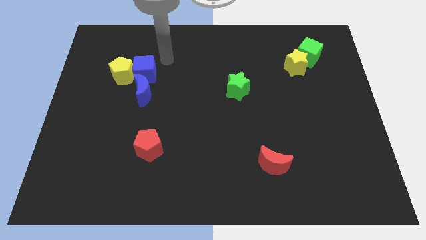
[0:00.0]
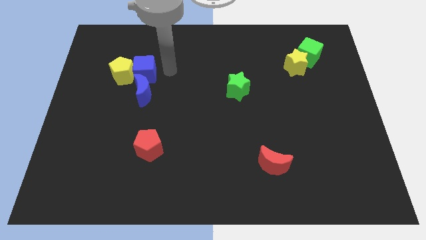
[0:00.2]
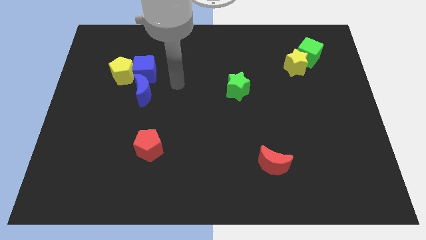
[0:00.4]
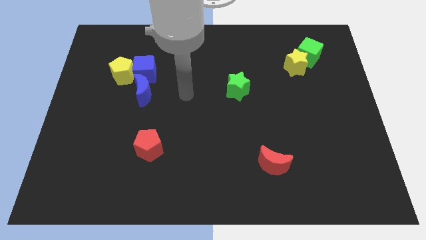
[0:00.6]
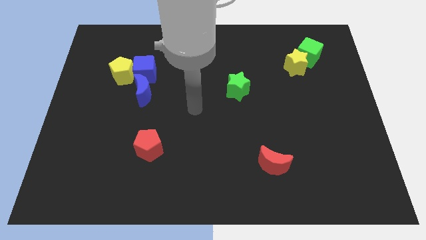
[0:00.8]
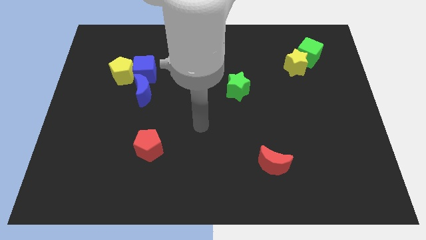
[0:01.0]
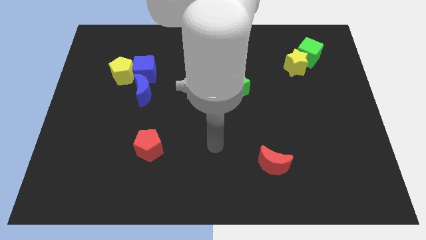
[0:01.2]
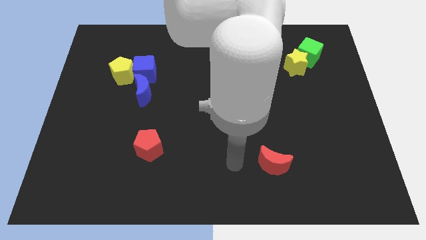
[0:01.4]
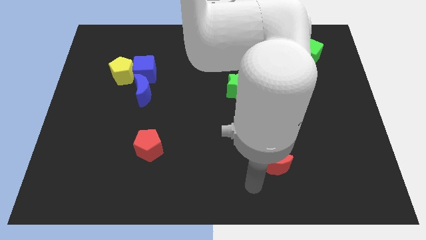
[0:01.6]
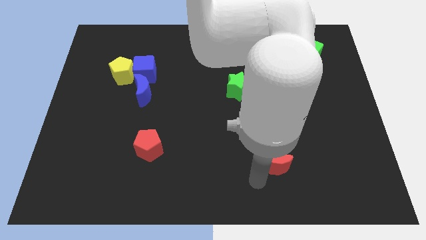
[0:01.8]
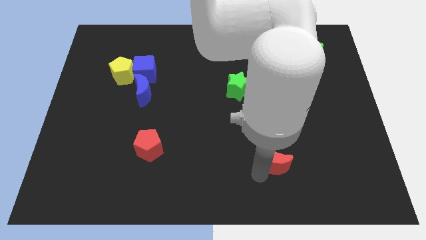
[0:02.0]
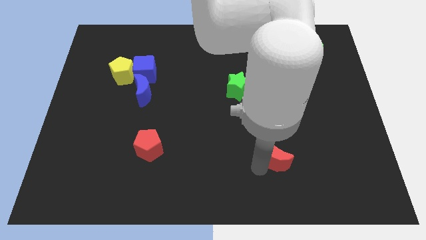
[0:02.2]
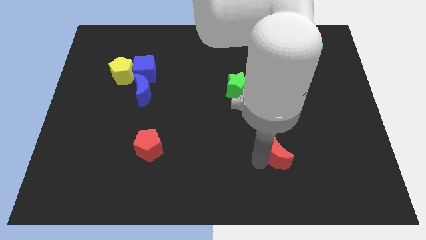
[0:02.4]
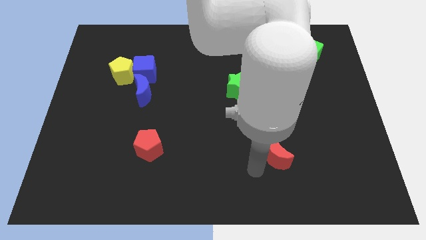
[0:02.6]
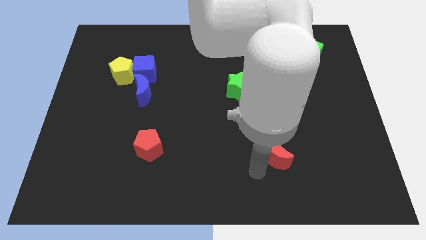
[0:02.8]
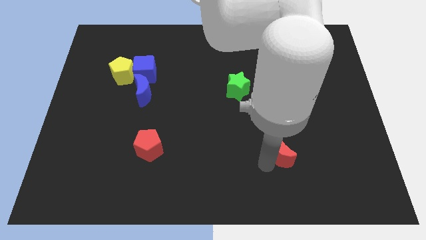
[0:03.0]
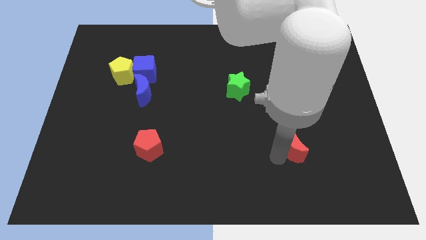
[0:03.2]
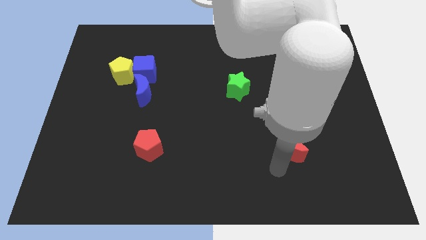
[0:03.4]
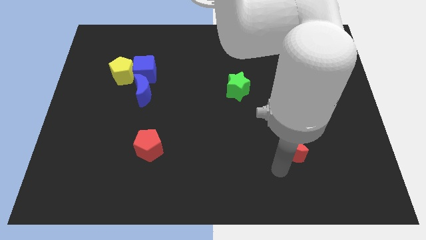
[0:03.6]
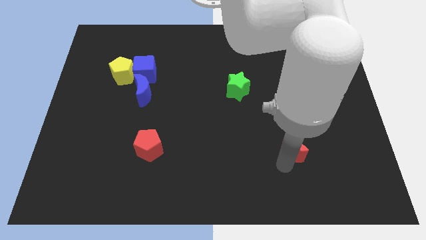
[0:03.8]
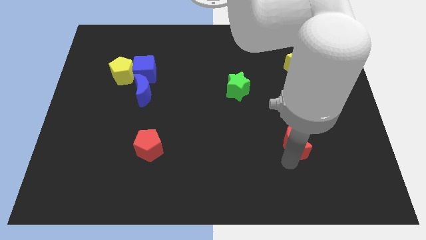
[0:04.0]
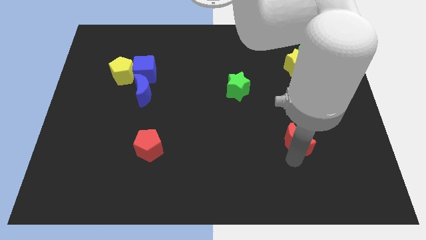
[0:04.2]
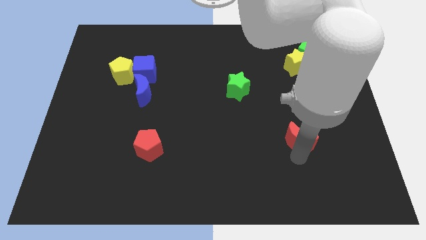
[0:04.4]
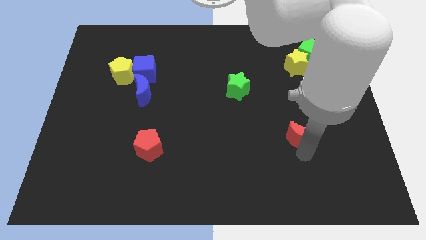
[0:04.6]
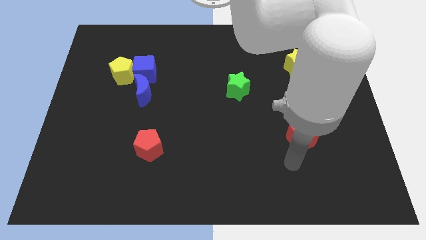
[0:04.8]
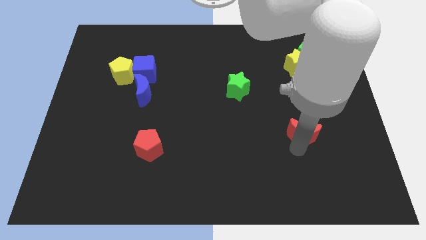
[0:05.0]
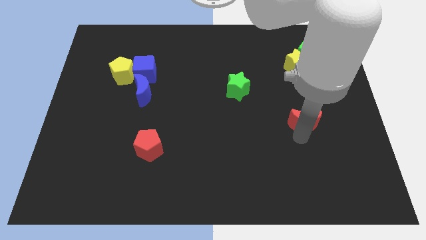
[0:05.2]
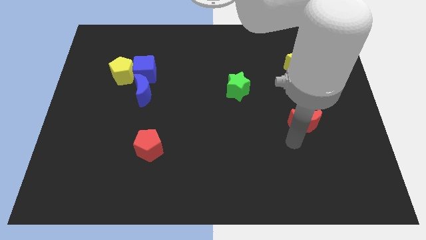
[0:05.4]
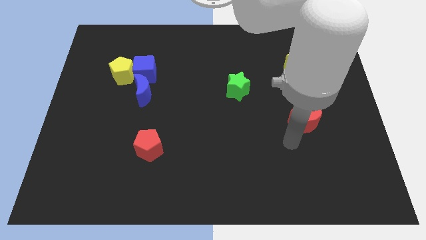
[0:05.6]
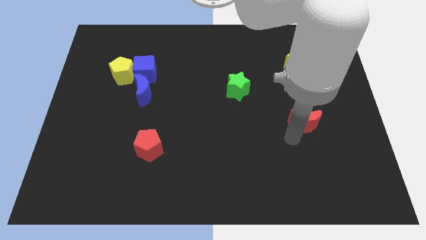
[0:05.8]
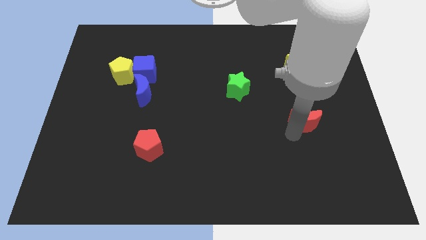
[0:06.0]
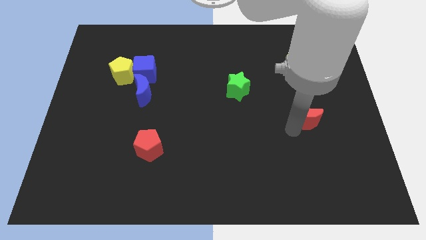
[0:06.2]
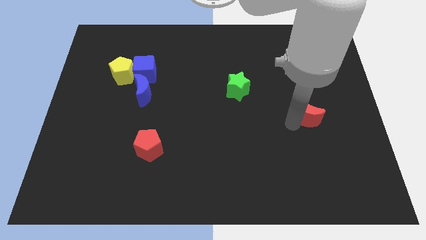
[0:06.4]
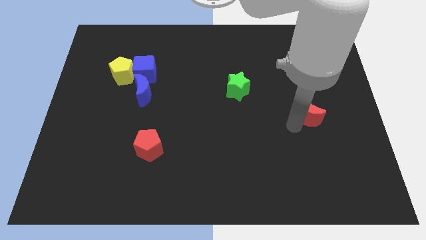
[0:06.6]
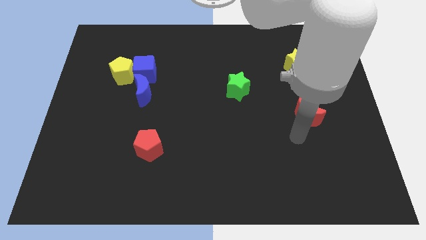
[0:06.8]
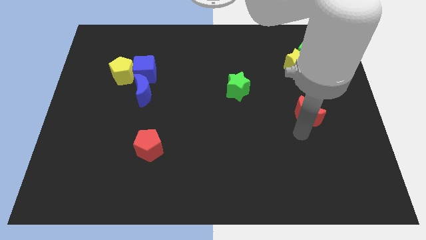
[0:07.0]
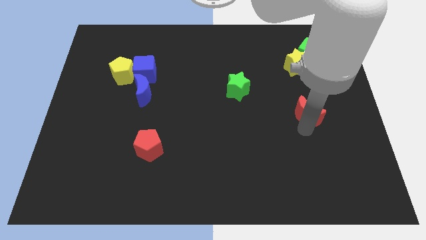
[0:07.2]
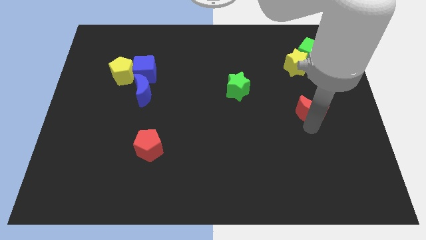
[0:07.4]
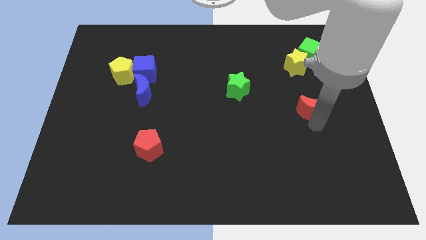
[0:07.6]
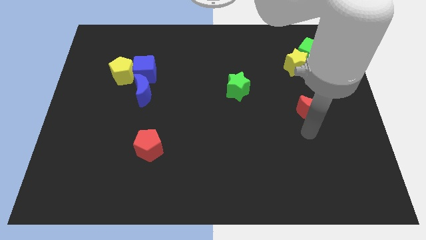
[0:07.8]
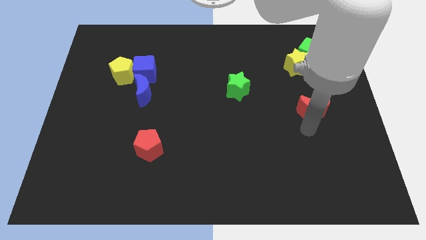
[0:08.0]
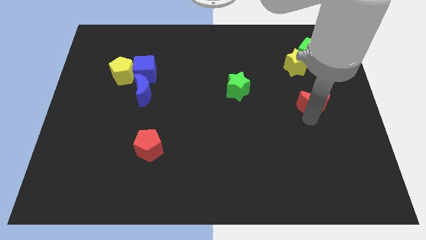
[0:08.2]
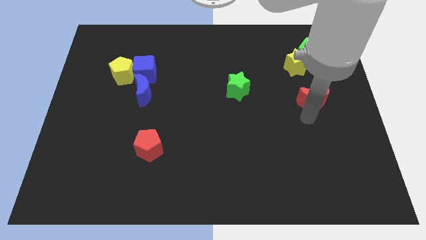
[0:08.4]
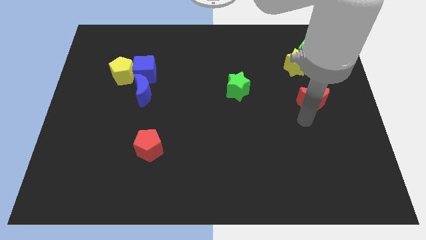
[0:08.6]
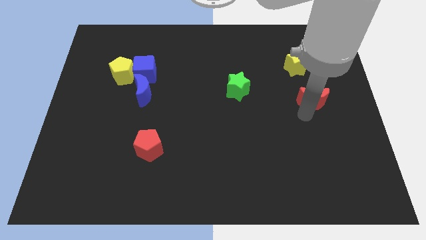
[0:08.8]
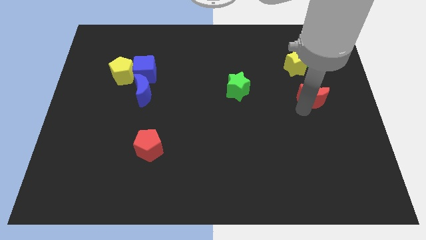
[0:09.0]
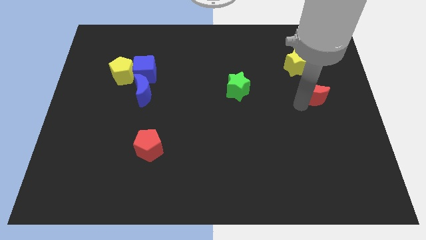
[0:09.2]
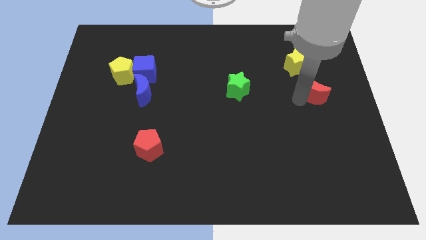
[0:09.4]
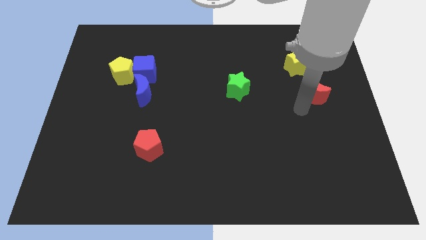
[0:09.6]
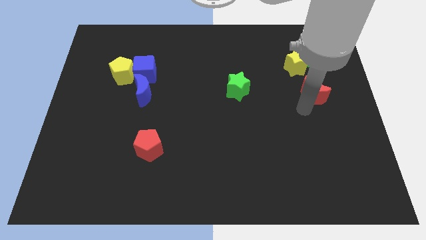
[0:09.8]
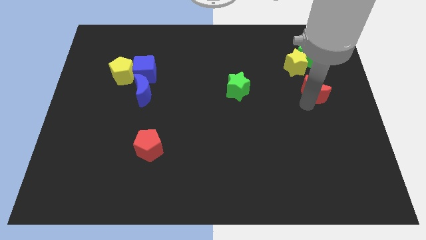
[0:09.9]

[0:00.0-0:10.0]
push the red moon diagonally down and to the right of the yellow star

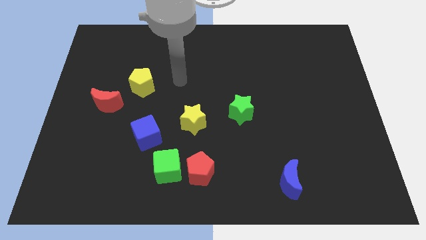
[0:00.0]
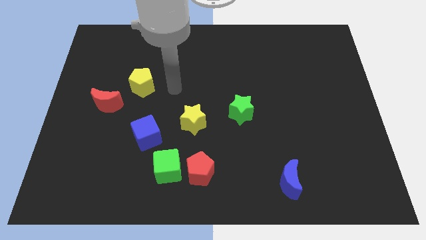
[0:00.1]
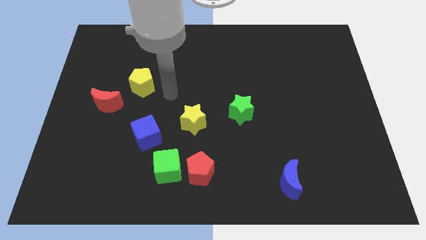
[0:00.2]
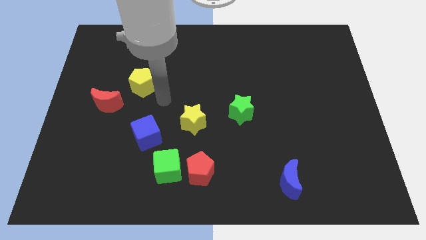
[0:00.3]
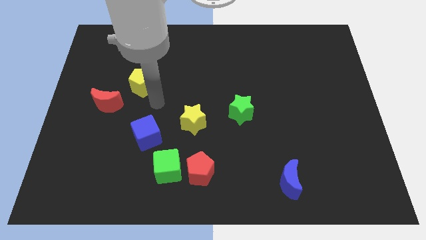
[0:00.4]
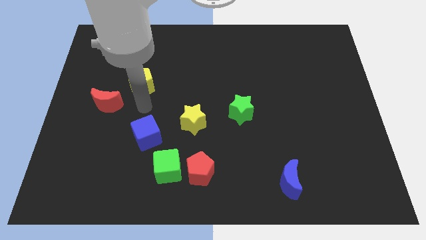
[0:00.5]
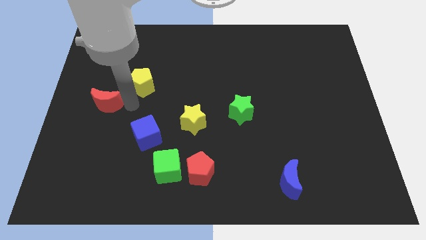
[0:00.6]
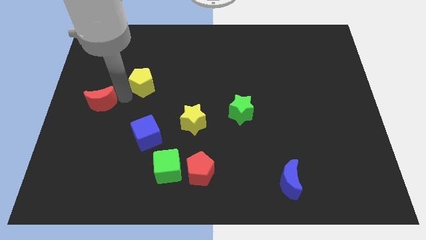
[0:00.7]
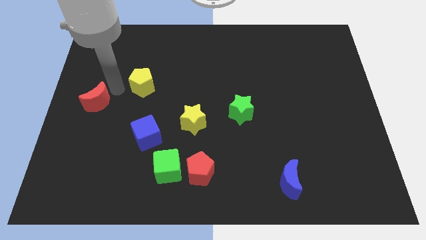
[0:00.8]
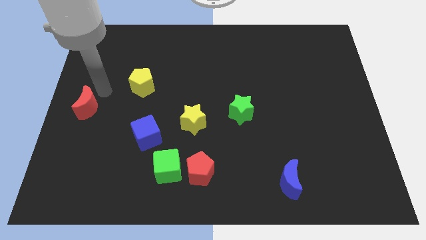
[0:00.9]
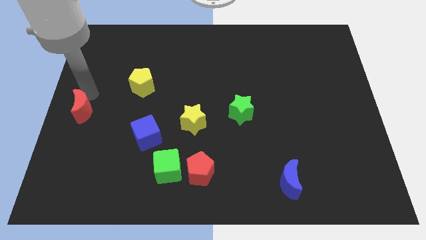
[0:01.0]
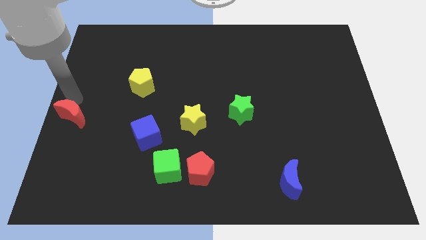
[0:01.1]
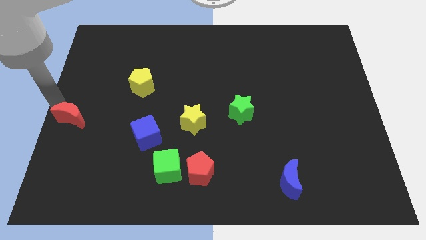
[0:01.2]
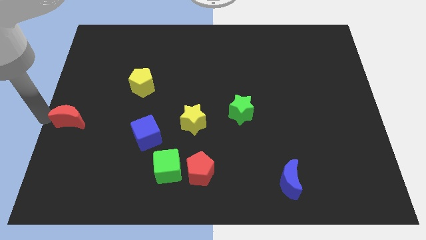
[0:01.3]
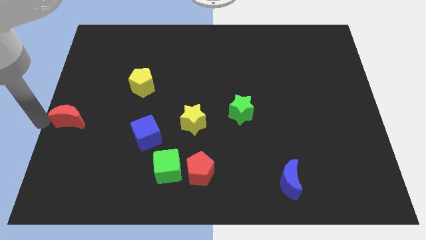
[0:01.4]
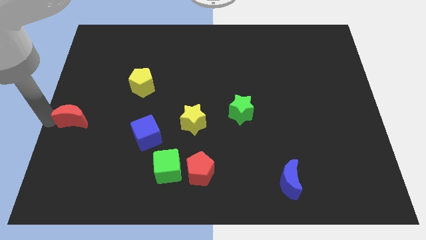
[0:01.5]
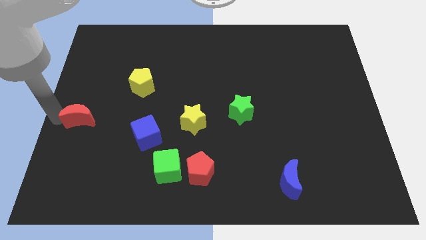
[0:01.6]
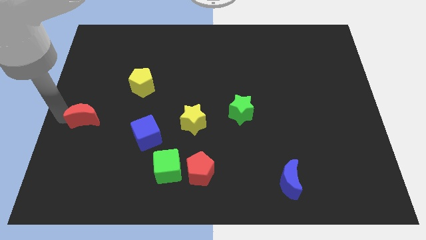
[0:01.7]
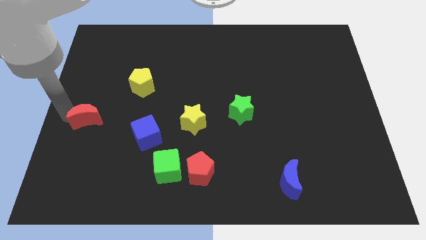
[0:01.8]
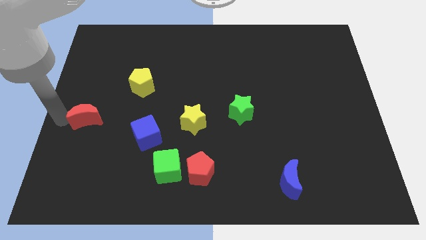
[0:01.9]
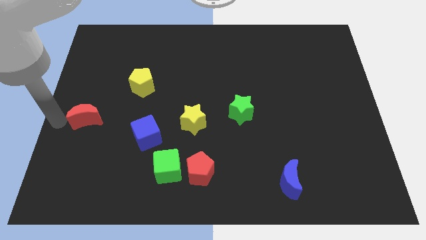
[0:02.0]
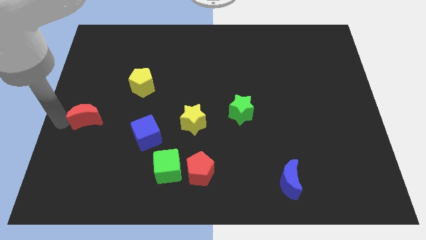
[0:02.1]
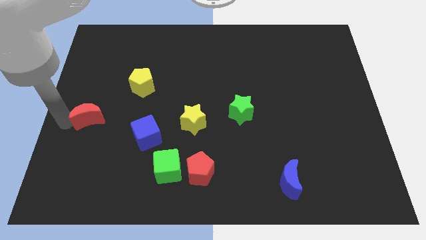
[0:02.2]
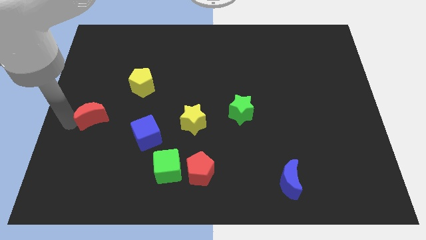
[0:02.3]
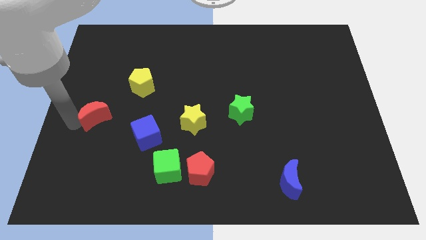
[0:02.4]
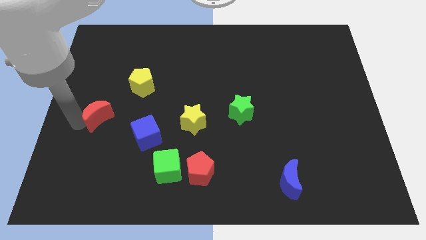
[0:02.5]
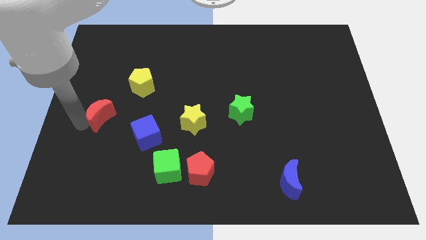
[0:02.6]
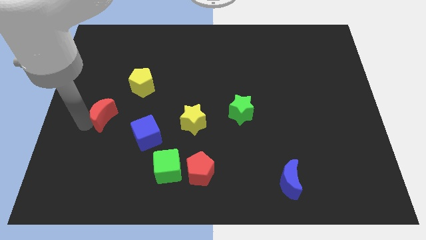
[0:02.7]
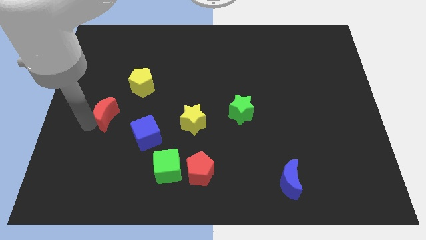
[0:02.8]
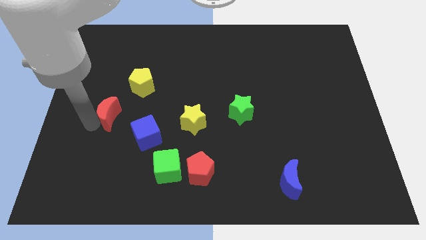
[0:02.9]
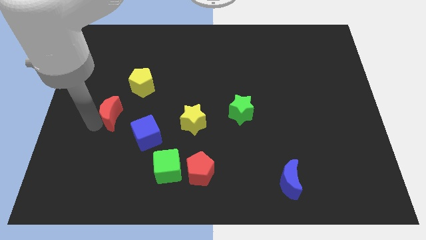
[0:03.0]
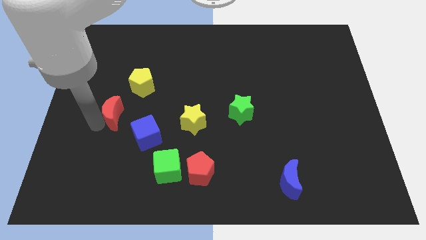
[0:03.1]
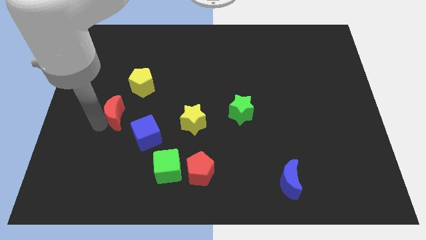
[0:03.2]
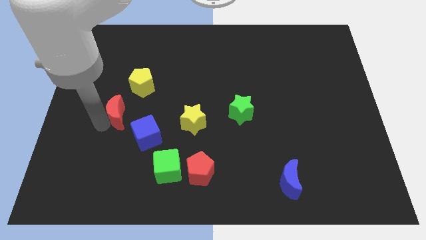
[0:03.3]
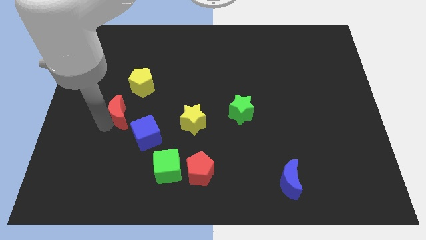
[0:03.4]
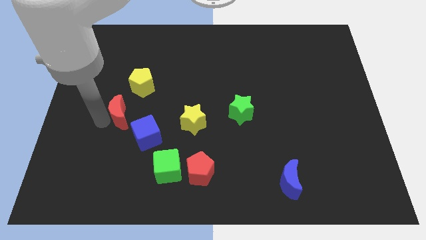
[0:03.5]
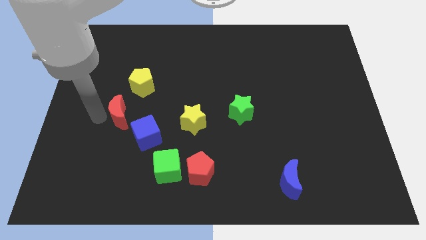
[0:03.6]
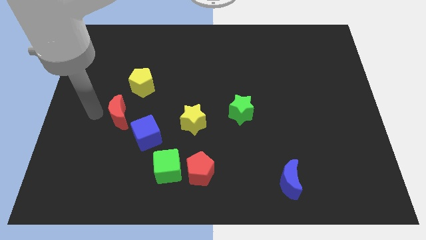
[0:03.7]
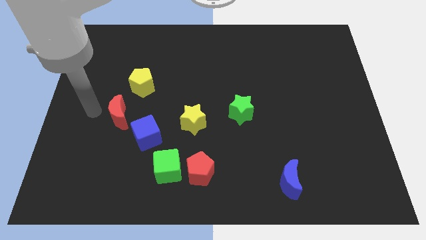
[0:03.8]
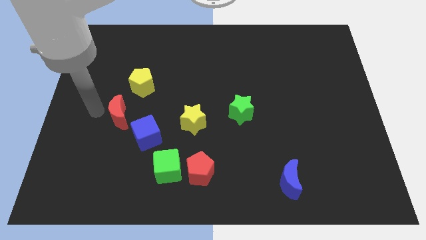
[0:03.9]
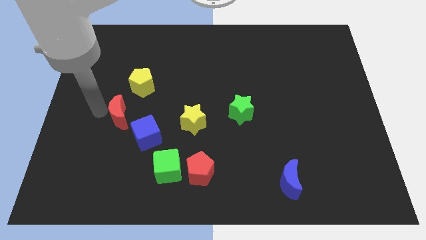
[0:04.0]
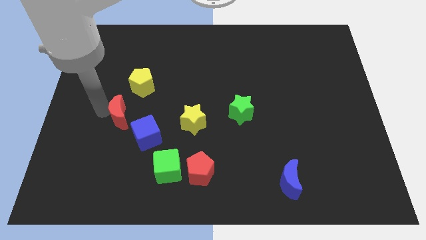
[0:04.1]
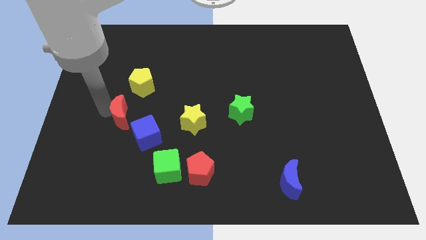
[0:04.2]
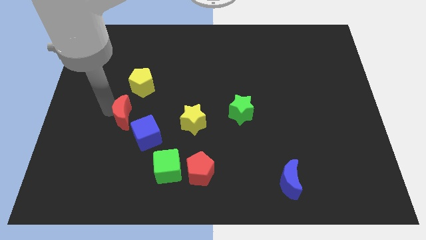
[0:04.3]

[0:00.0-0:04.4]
push the red moon to the left of the yellow star
